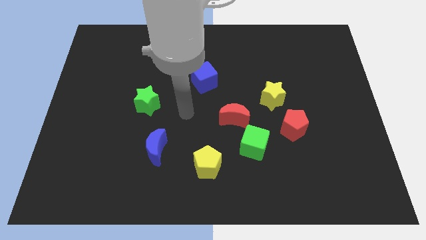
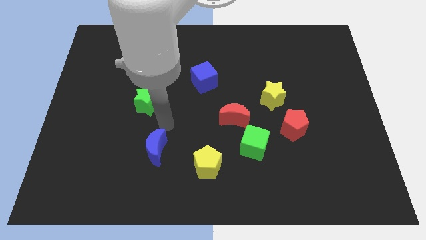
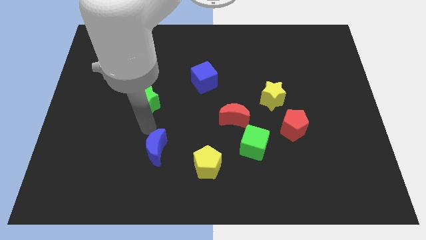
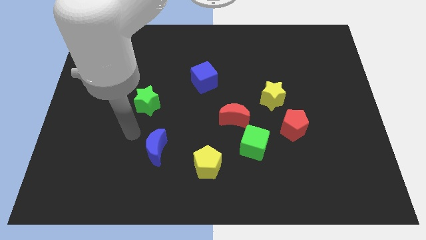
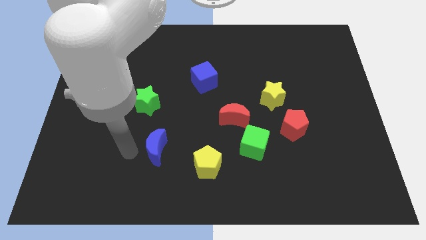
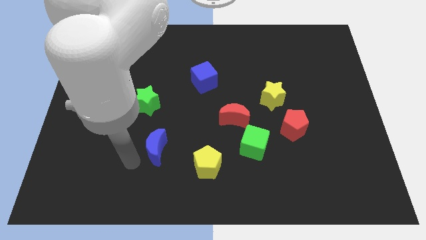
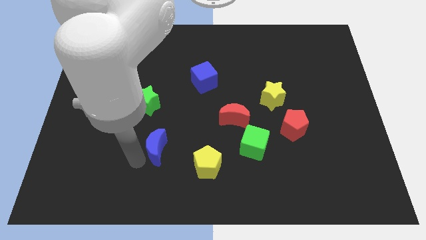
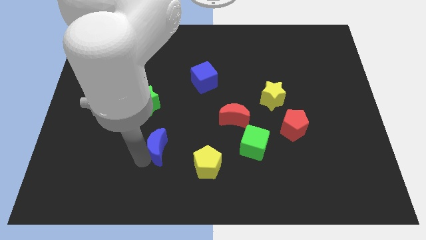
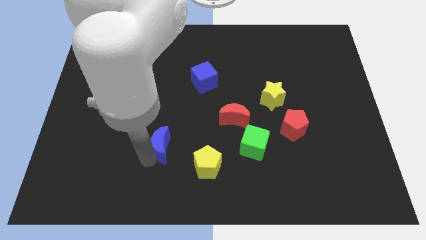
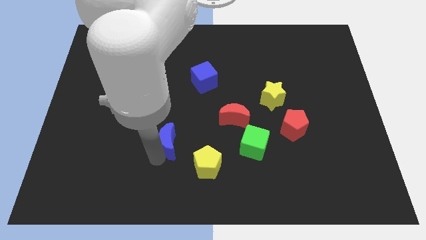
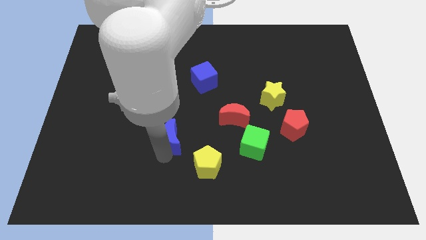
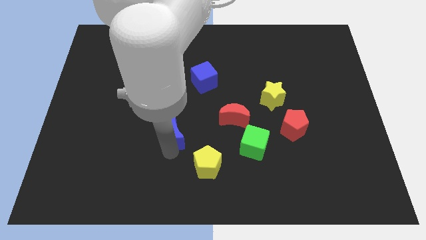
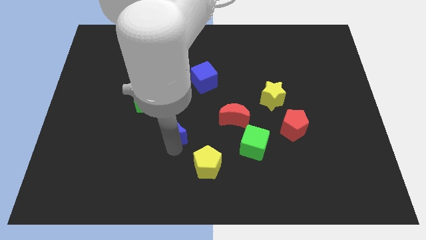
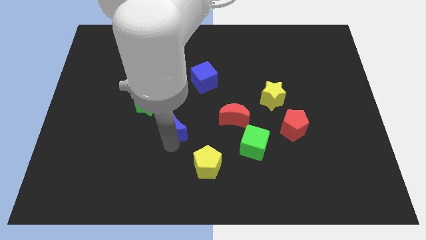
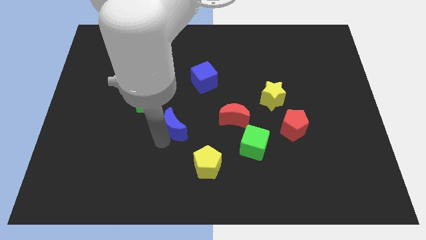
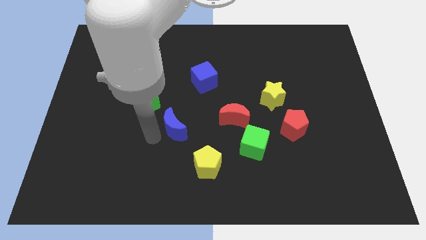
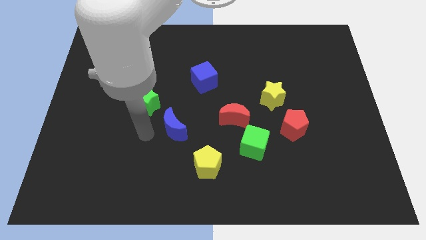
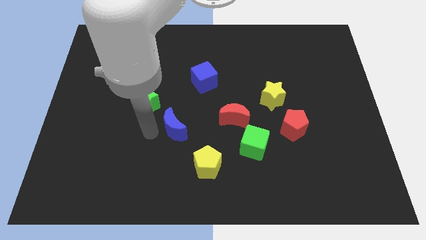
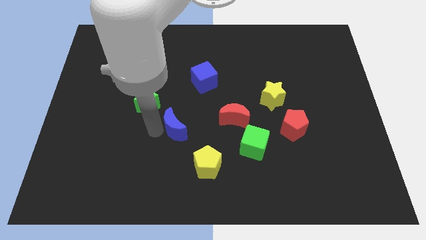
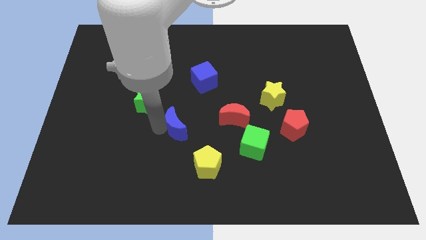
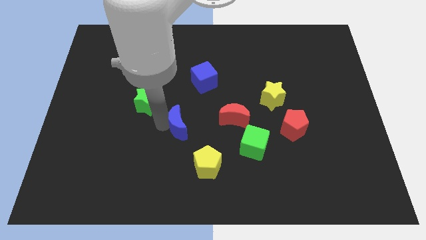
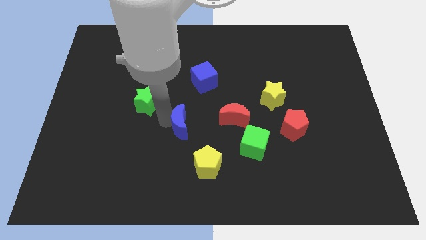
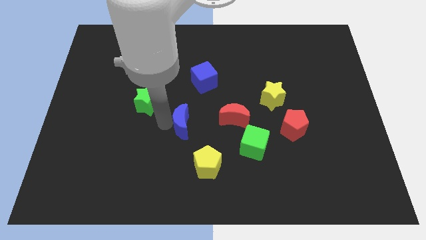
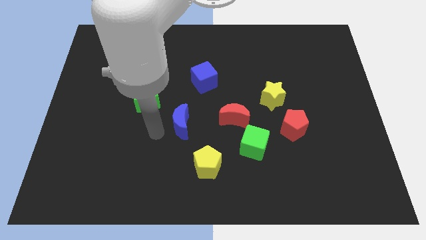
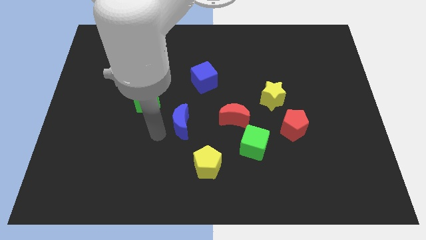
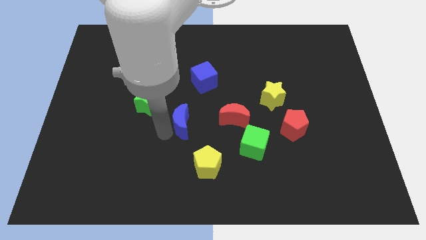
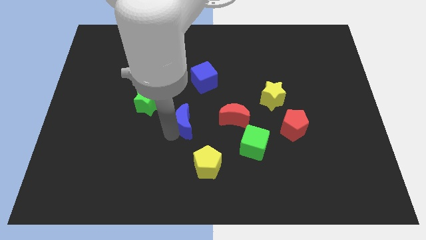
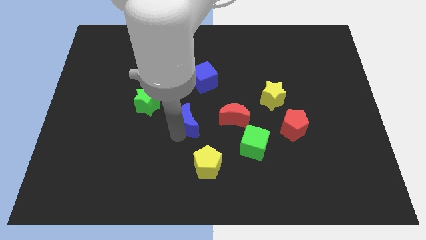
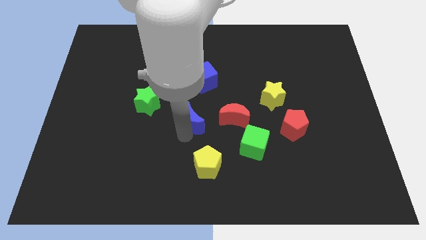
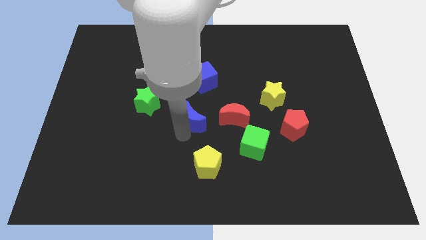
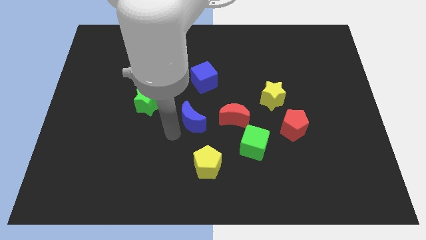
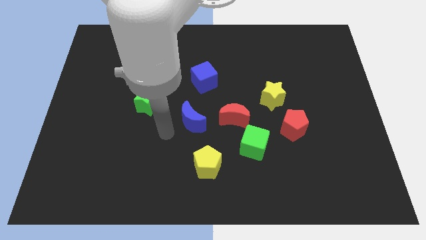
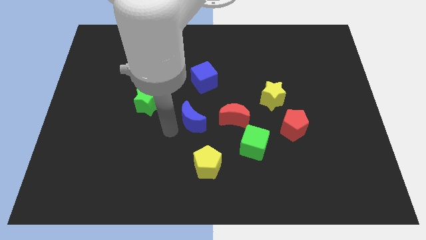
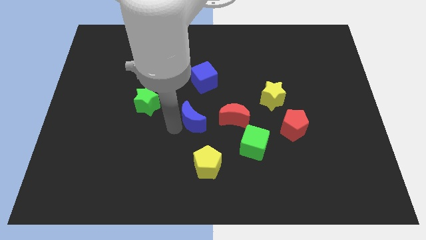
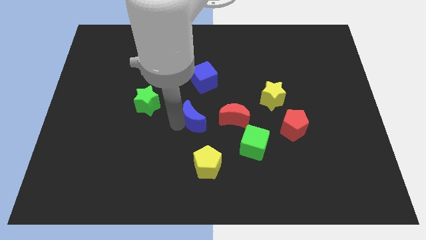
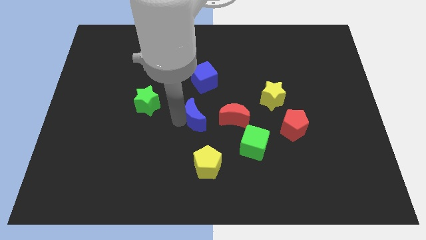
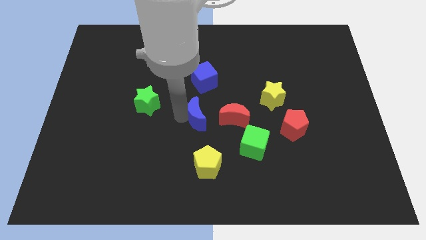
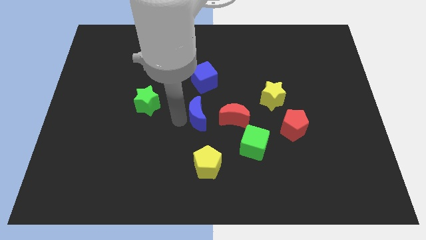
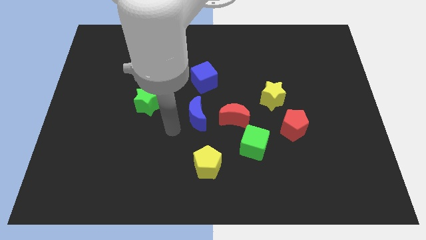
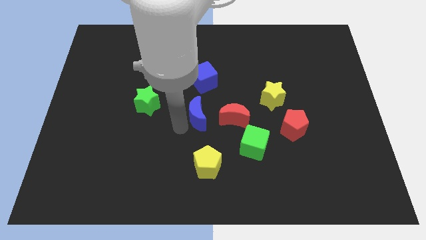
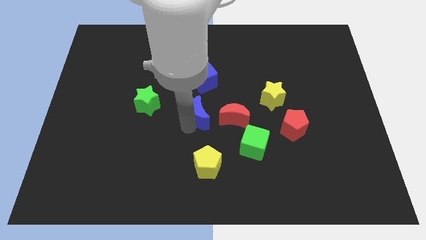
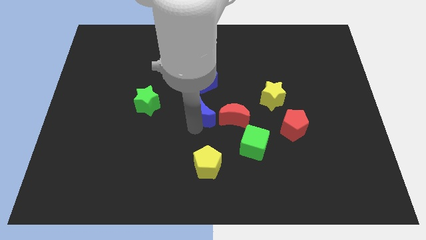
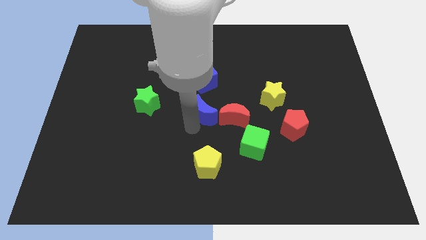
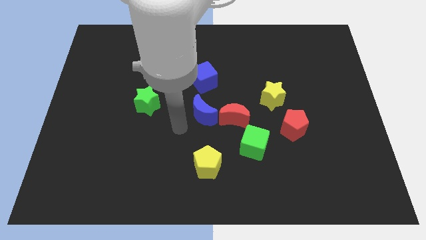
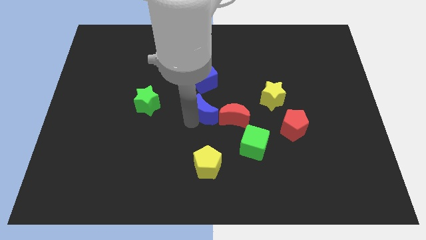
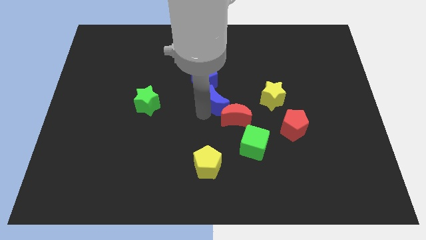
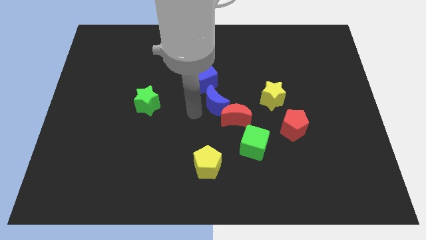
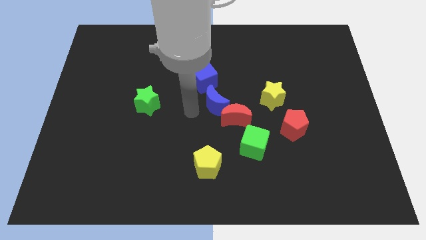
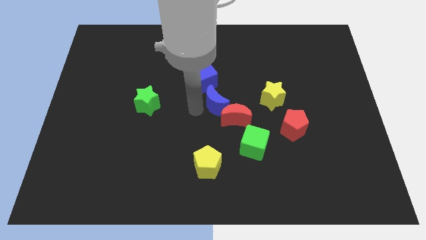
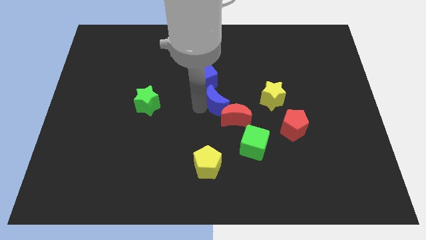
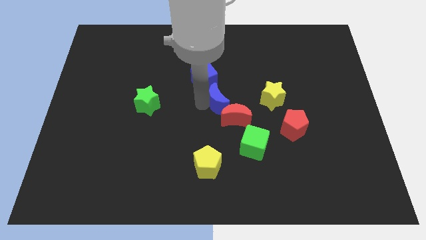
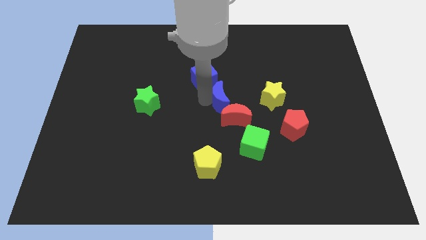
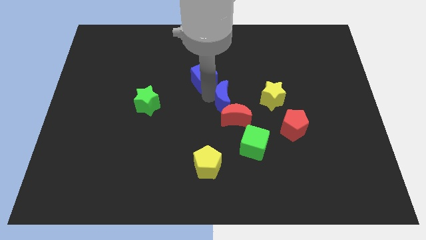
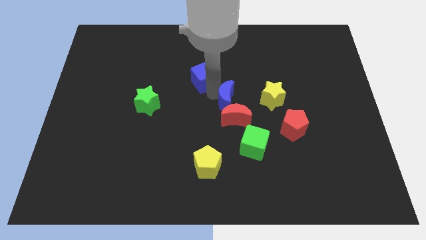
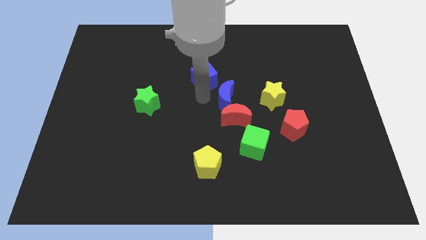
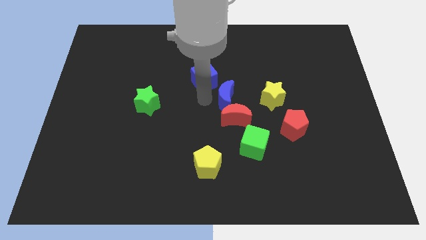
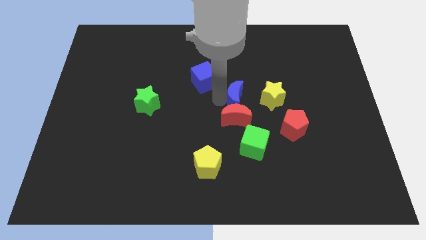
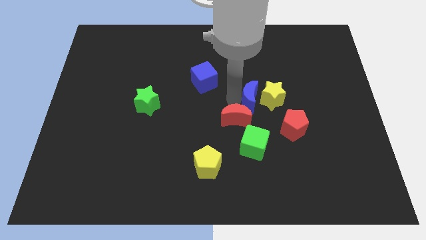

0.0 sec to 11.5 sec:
push the blue moon next to the yellow star

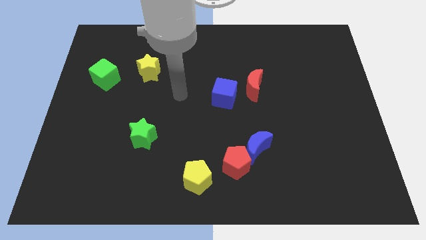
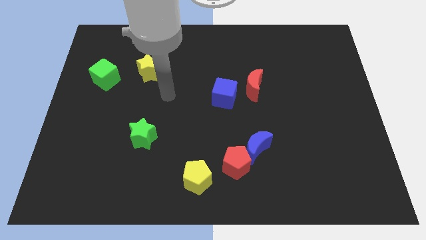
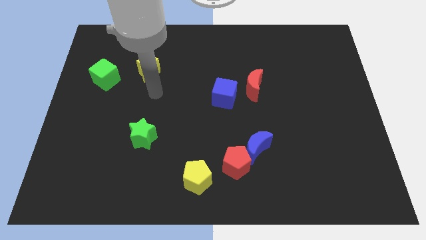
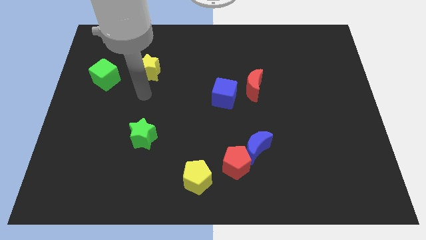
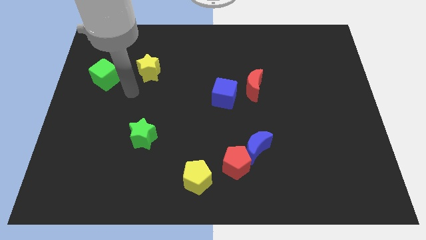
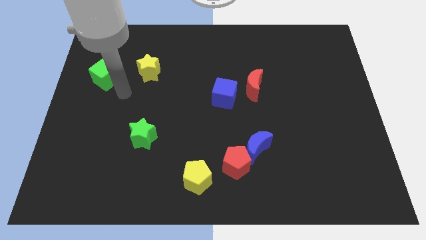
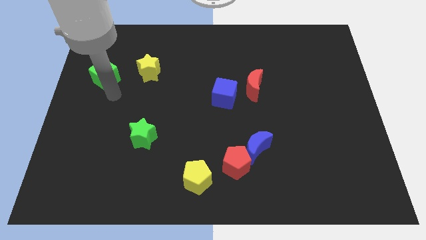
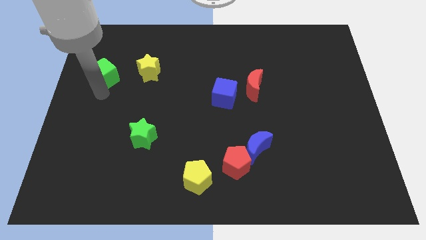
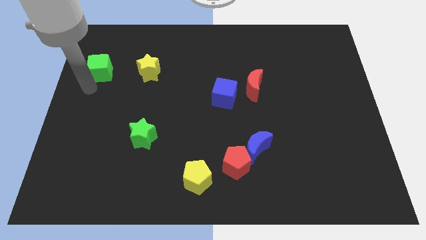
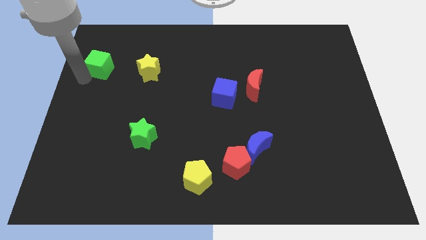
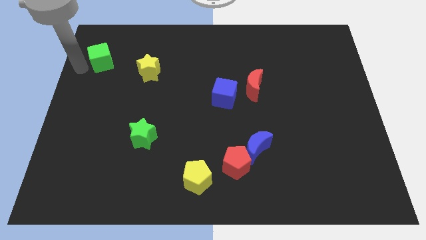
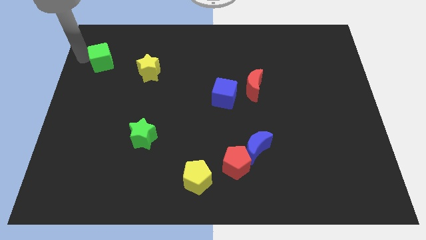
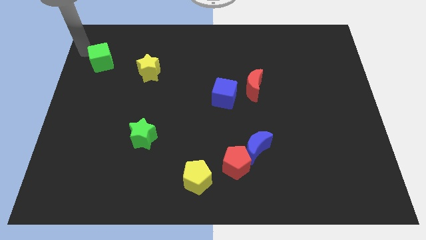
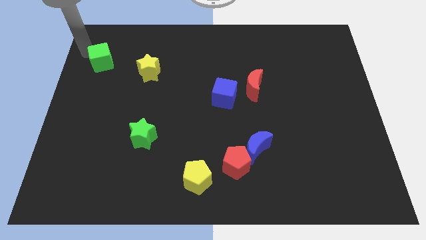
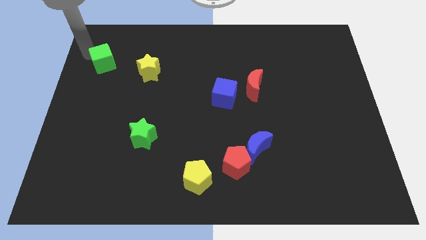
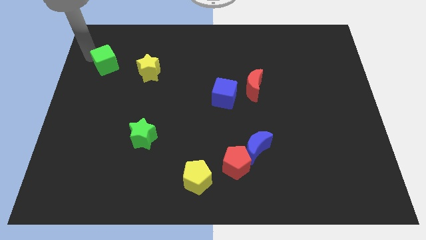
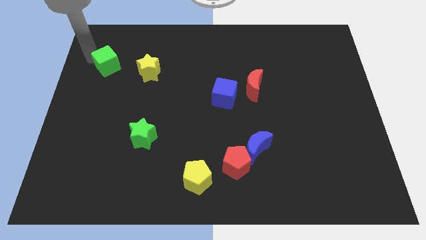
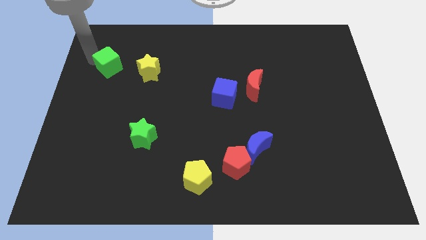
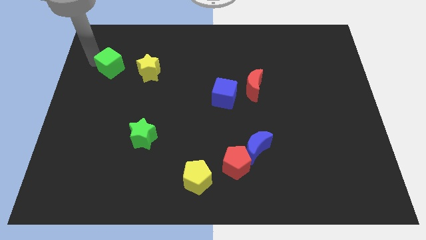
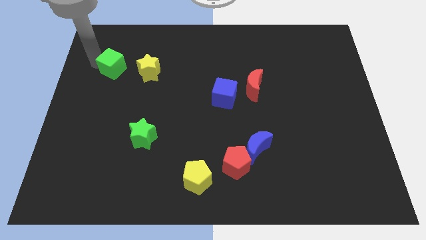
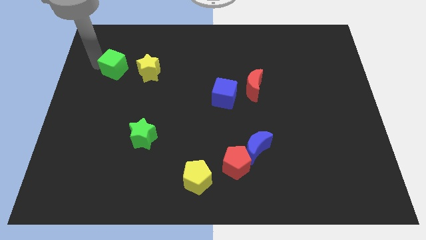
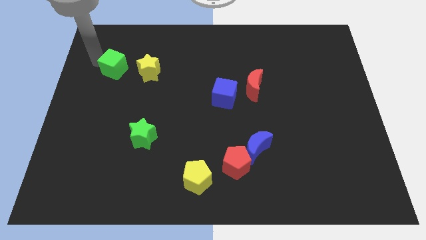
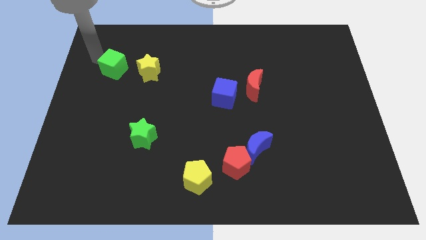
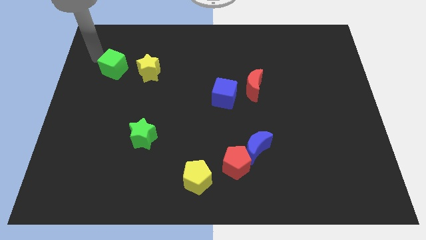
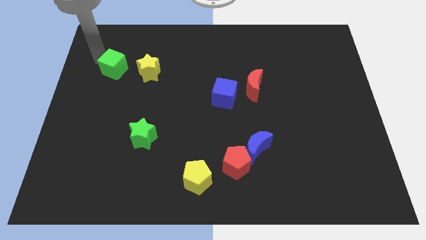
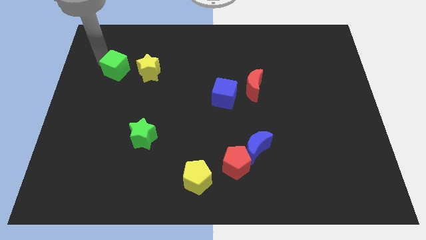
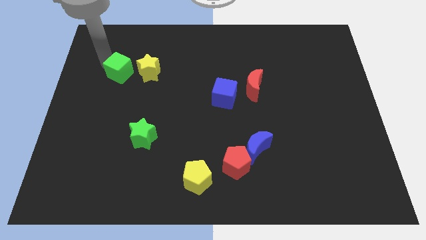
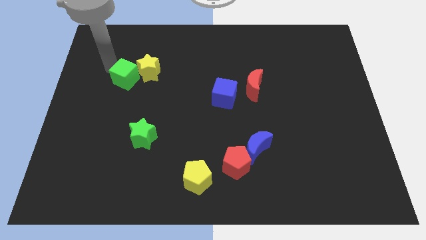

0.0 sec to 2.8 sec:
put the green cube to the yellow star
